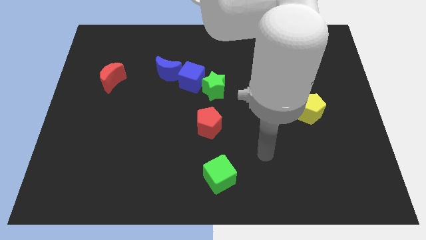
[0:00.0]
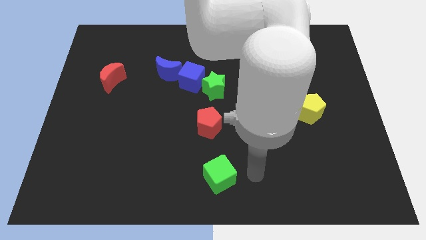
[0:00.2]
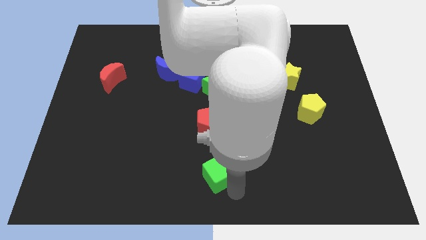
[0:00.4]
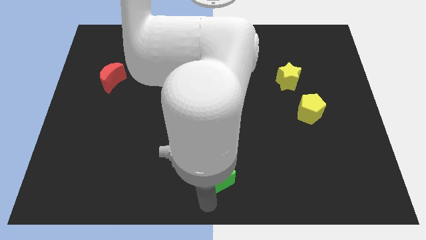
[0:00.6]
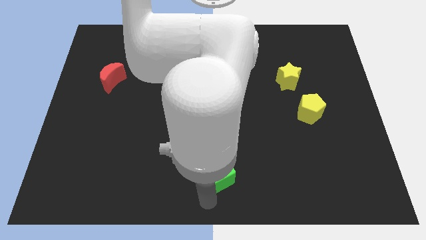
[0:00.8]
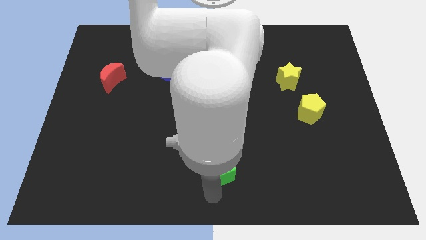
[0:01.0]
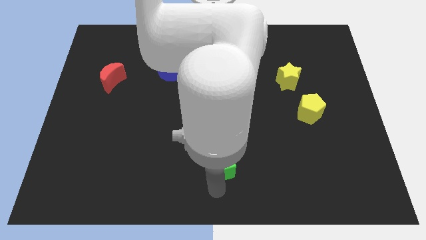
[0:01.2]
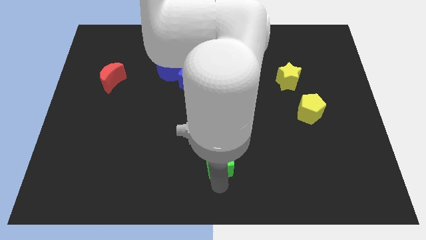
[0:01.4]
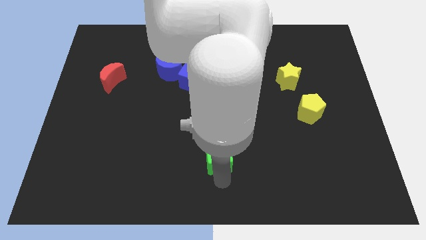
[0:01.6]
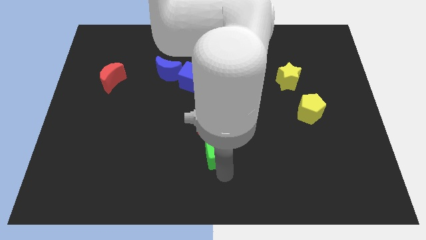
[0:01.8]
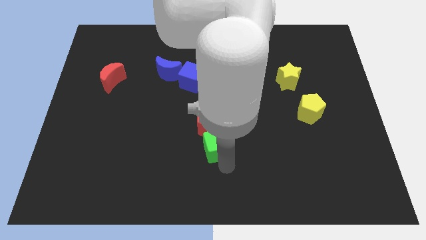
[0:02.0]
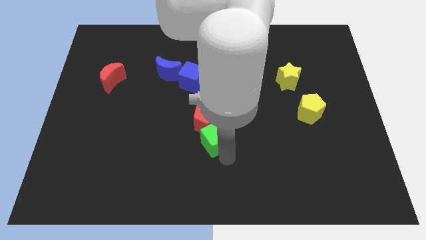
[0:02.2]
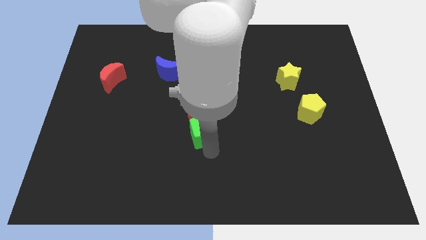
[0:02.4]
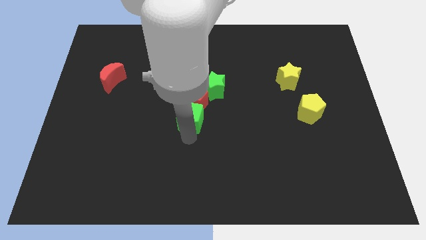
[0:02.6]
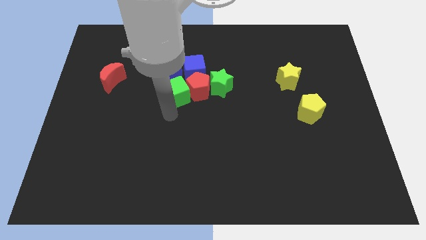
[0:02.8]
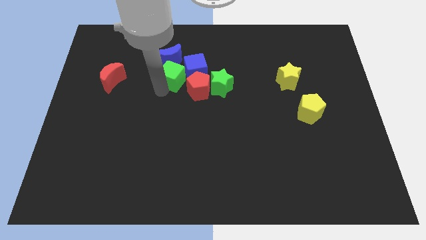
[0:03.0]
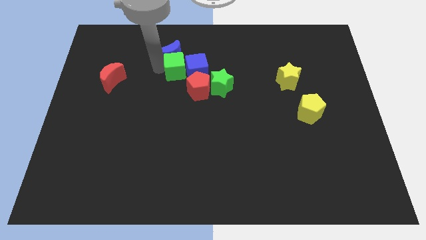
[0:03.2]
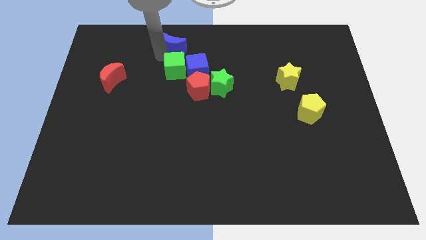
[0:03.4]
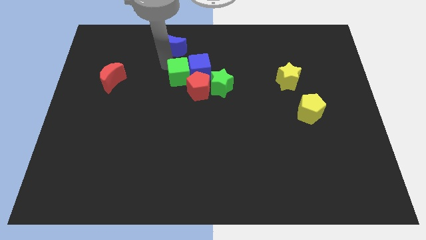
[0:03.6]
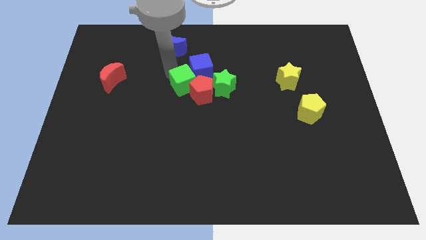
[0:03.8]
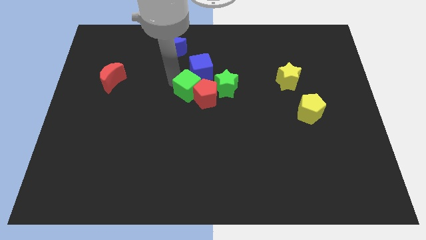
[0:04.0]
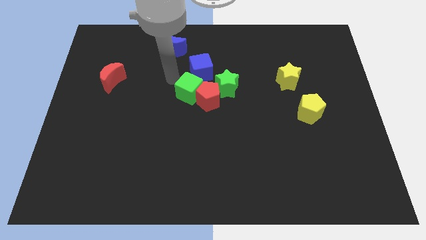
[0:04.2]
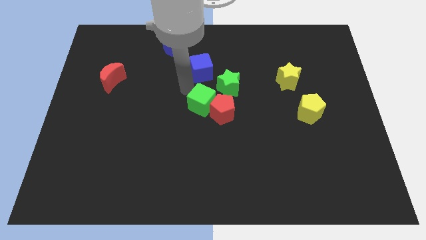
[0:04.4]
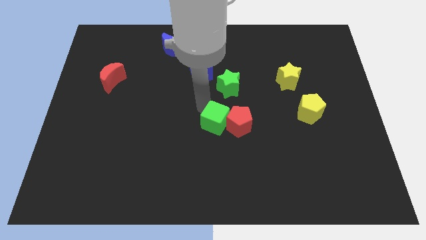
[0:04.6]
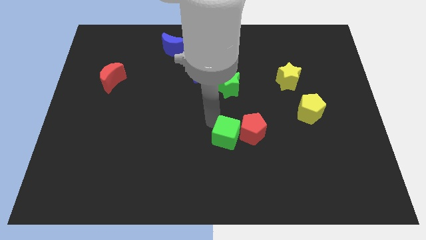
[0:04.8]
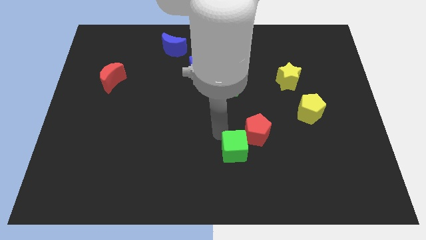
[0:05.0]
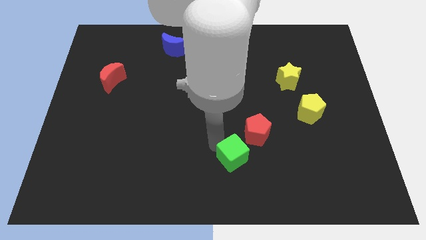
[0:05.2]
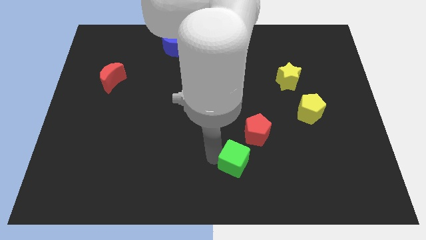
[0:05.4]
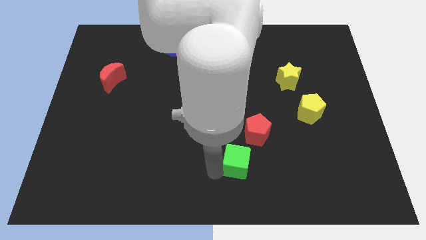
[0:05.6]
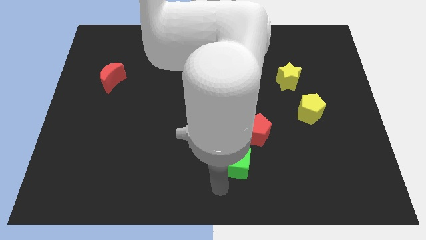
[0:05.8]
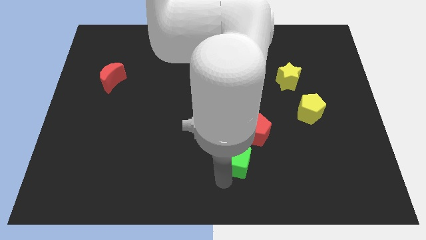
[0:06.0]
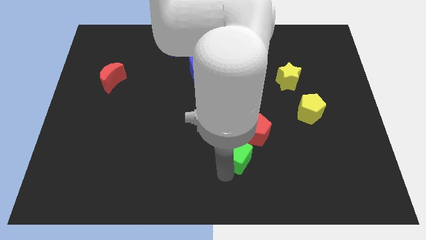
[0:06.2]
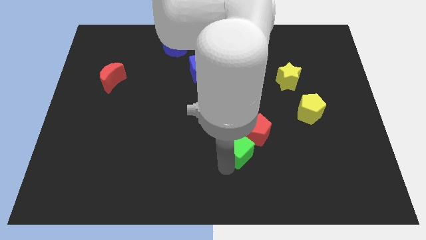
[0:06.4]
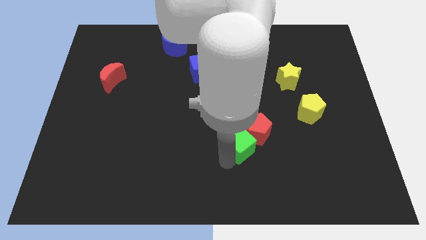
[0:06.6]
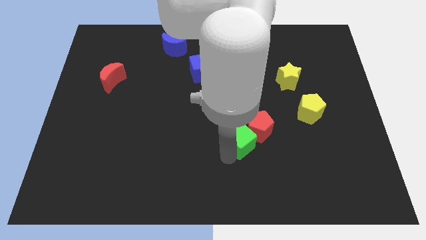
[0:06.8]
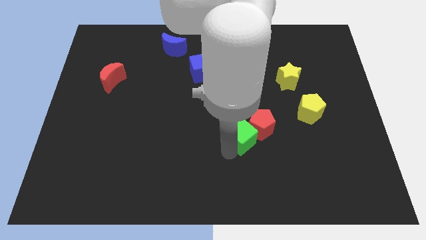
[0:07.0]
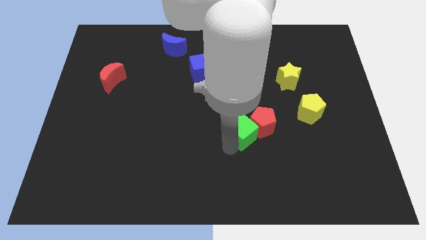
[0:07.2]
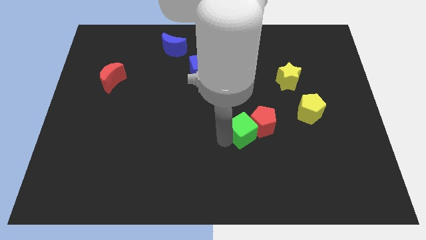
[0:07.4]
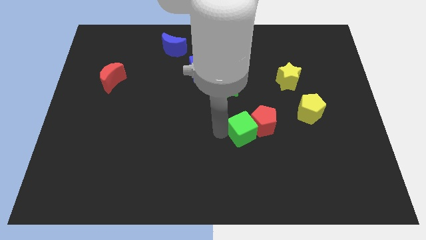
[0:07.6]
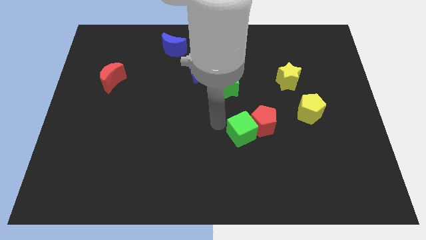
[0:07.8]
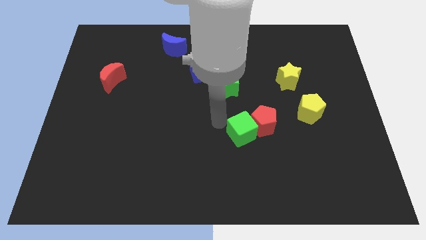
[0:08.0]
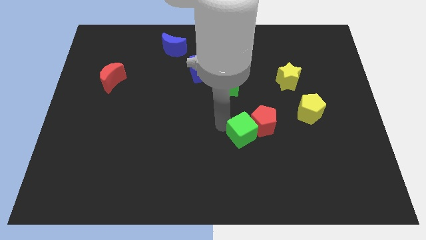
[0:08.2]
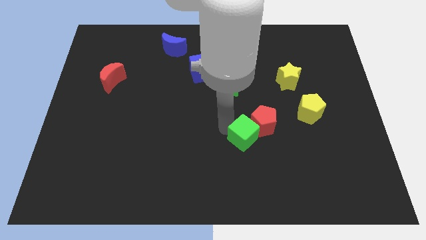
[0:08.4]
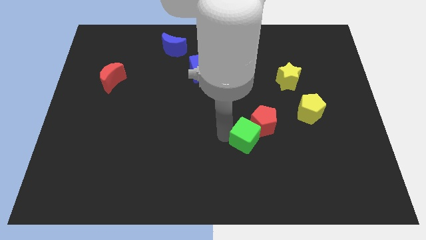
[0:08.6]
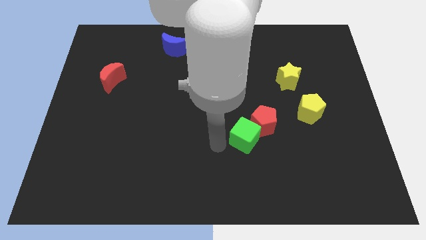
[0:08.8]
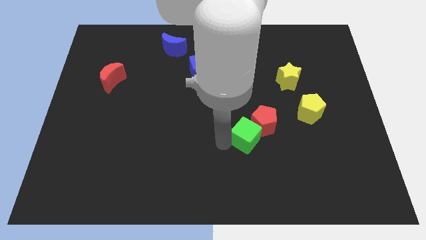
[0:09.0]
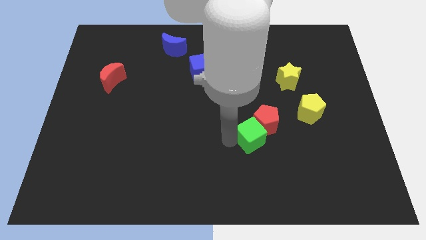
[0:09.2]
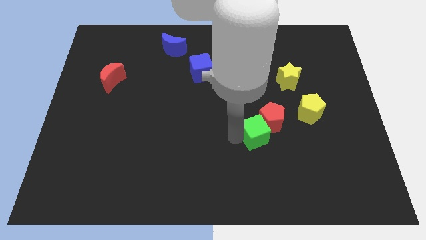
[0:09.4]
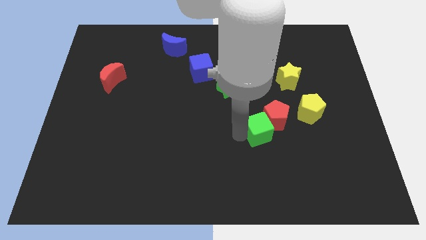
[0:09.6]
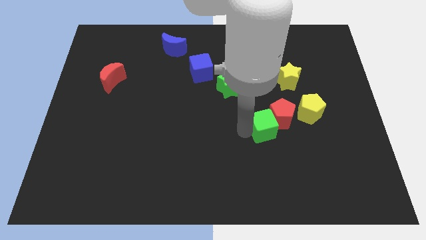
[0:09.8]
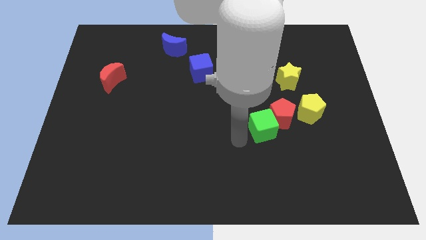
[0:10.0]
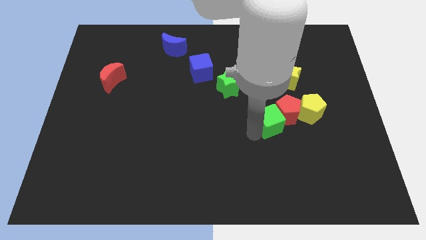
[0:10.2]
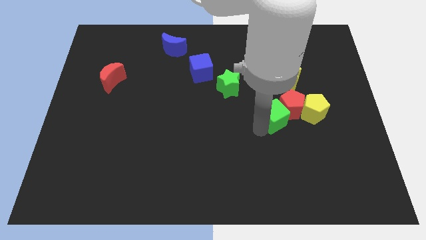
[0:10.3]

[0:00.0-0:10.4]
move the green cube below the yellow star

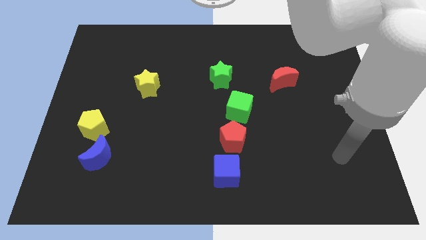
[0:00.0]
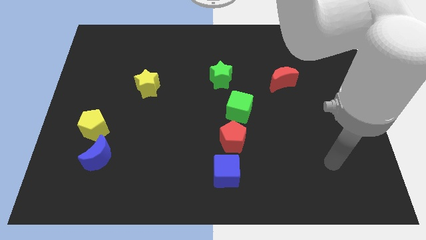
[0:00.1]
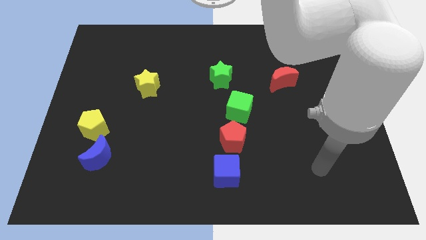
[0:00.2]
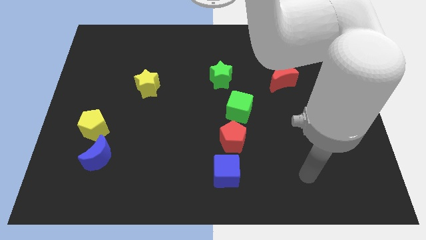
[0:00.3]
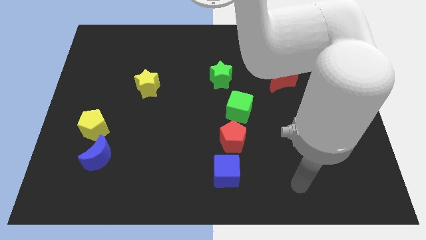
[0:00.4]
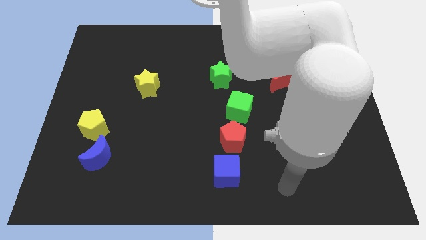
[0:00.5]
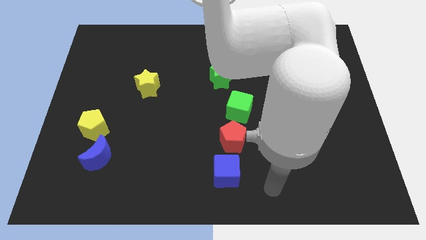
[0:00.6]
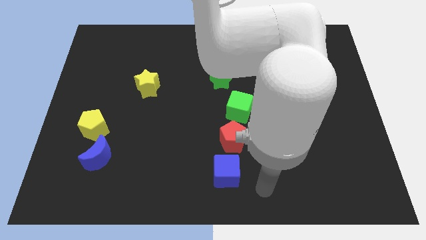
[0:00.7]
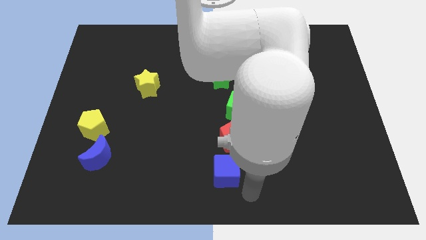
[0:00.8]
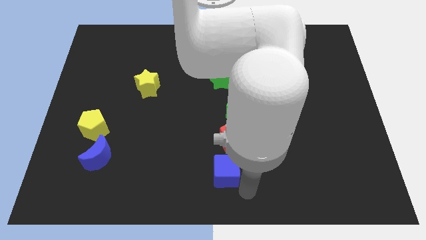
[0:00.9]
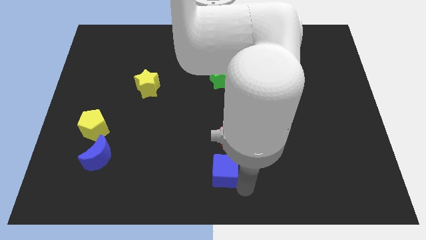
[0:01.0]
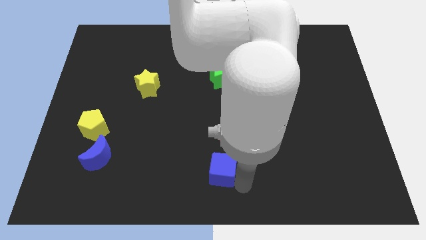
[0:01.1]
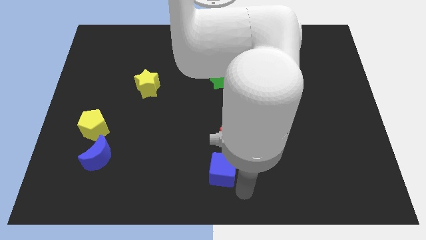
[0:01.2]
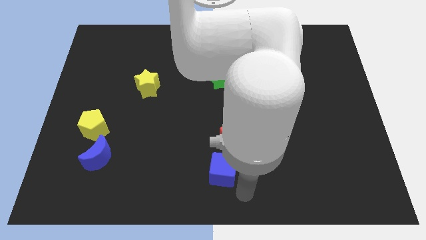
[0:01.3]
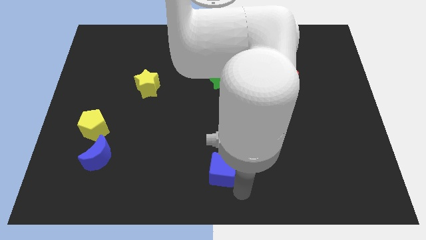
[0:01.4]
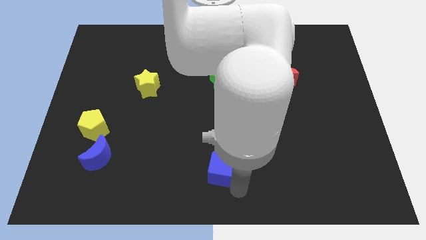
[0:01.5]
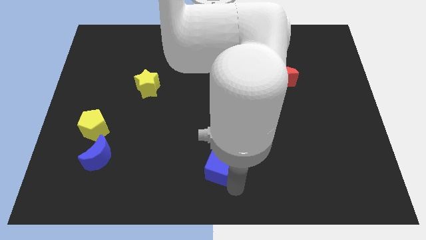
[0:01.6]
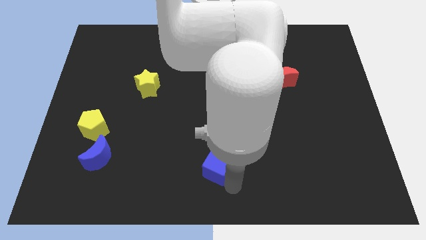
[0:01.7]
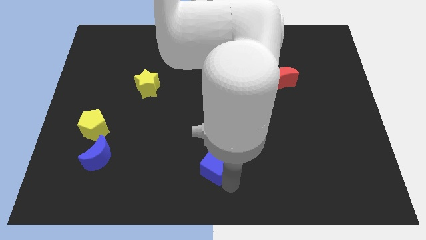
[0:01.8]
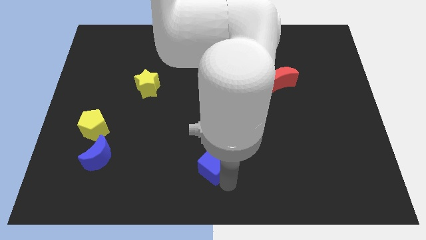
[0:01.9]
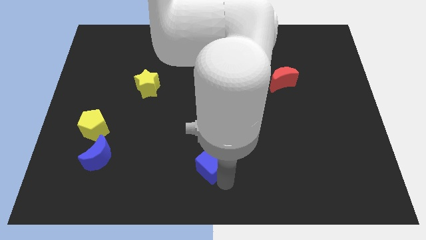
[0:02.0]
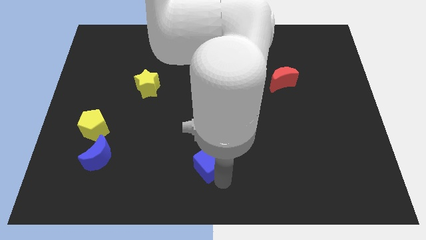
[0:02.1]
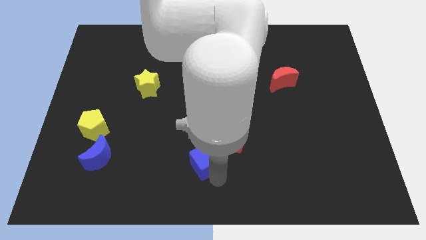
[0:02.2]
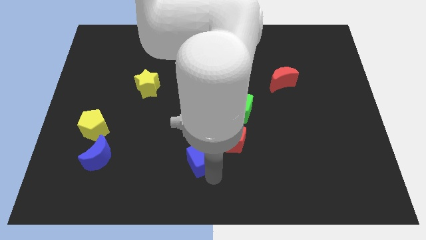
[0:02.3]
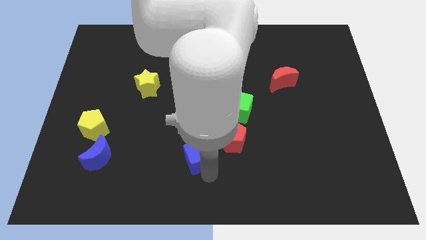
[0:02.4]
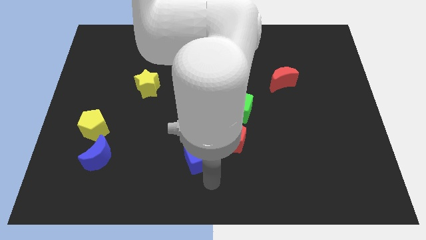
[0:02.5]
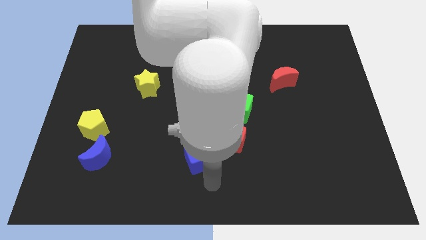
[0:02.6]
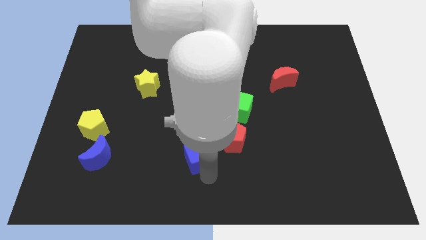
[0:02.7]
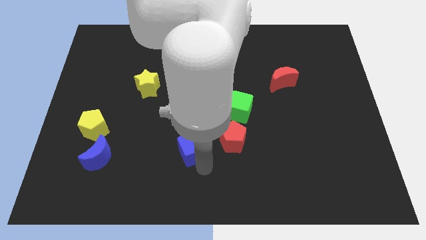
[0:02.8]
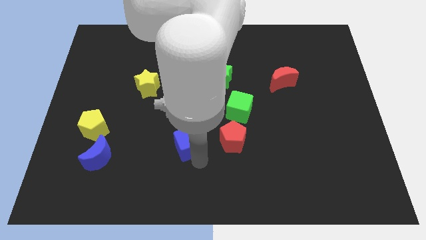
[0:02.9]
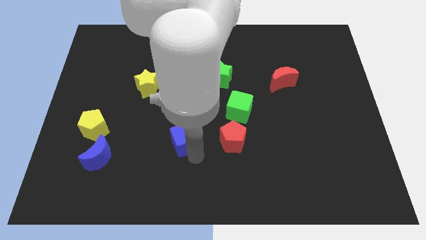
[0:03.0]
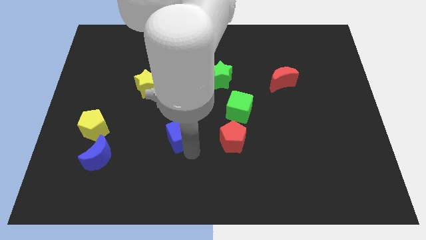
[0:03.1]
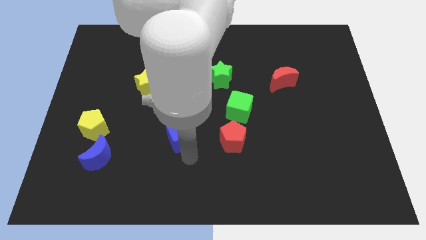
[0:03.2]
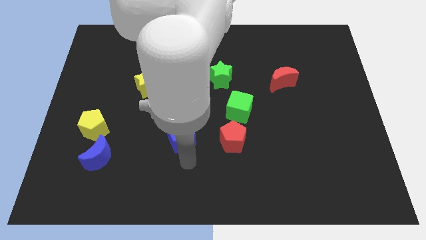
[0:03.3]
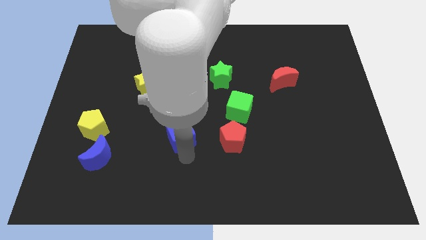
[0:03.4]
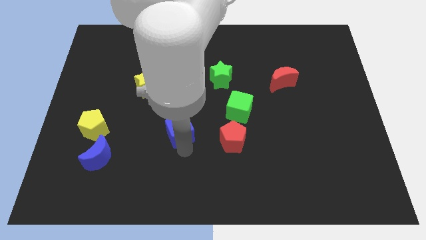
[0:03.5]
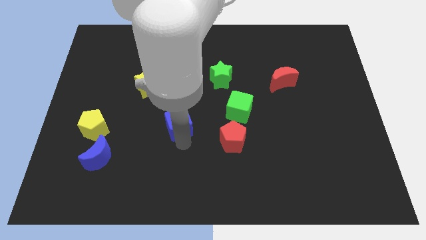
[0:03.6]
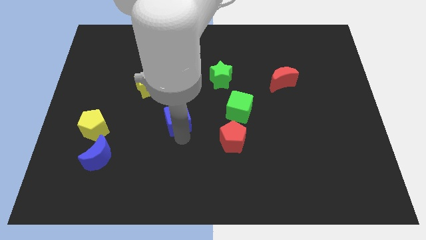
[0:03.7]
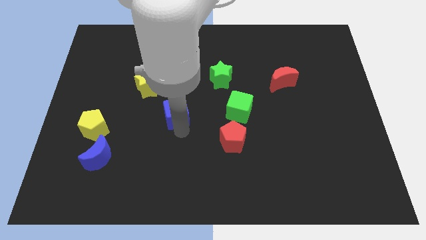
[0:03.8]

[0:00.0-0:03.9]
move the blue cube diagonally down and to the right of the yellow star
